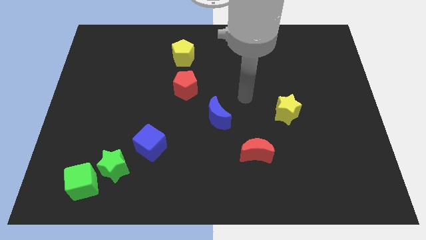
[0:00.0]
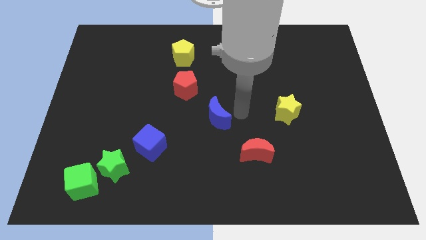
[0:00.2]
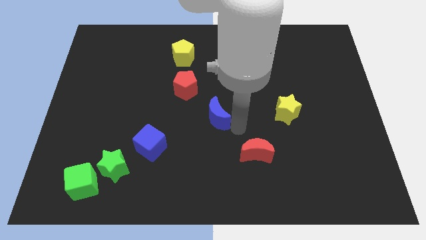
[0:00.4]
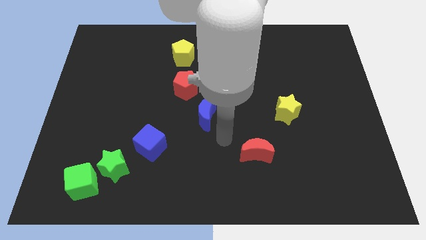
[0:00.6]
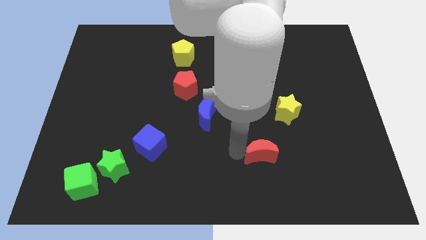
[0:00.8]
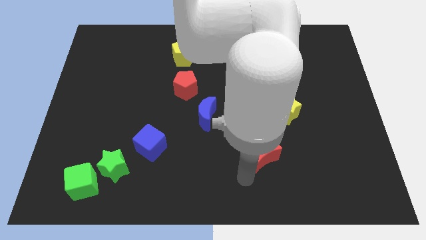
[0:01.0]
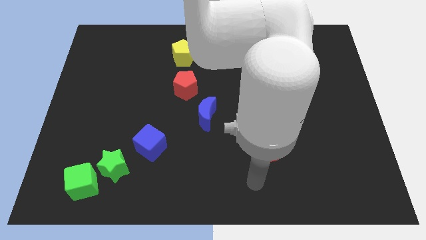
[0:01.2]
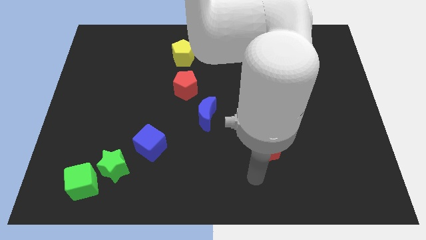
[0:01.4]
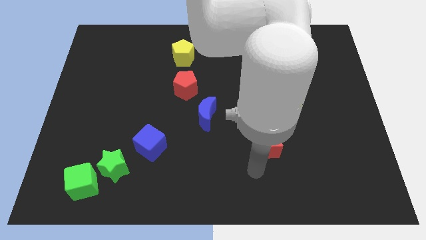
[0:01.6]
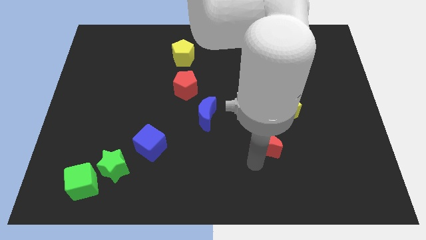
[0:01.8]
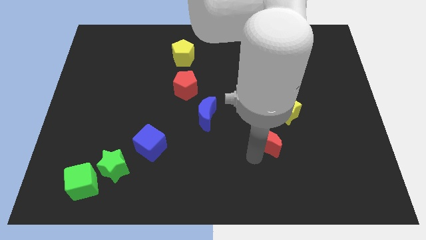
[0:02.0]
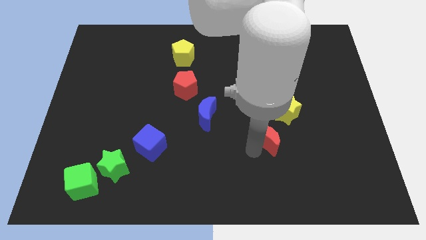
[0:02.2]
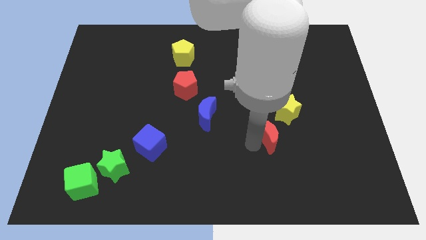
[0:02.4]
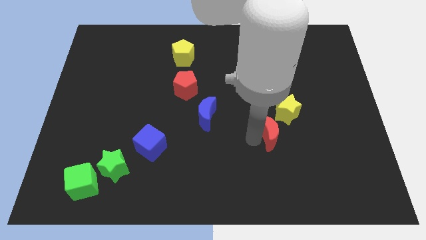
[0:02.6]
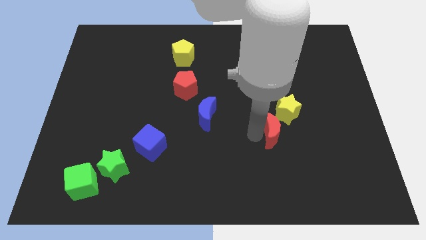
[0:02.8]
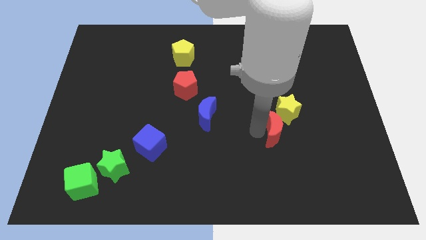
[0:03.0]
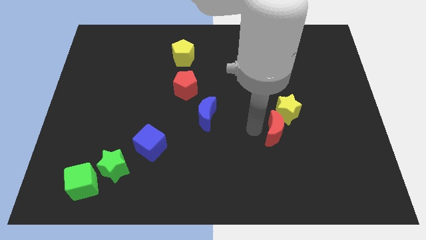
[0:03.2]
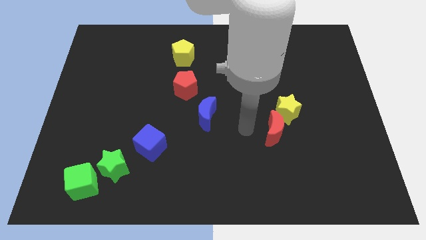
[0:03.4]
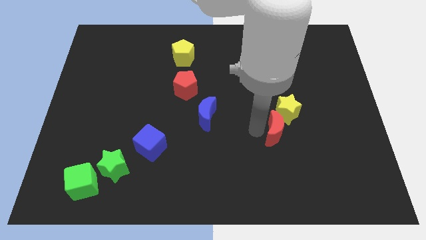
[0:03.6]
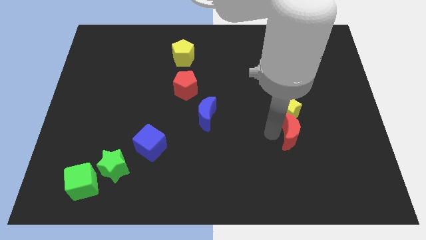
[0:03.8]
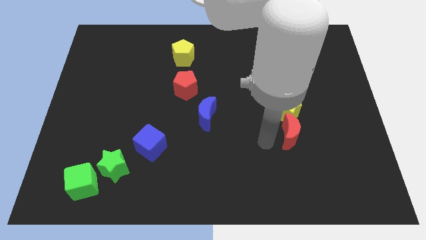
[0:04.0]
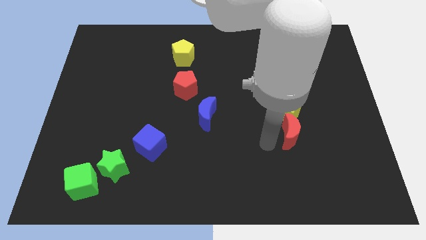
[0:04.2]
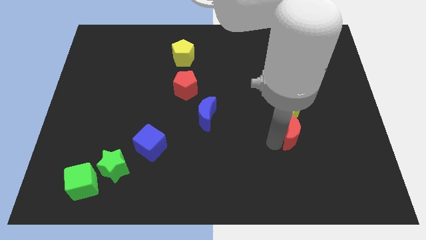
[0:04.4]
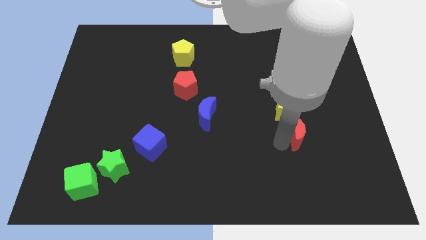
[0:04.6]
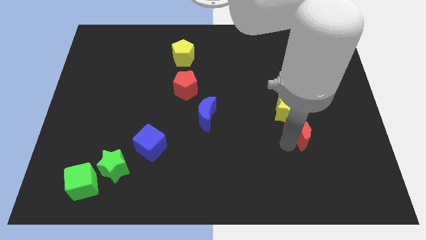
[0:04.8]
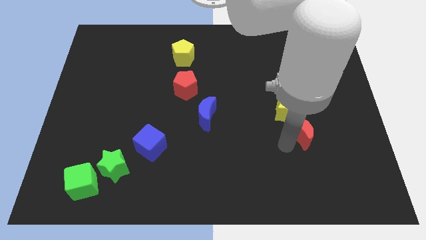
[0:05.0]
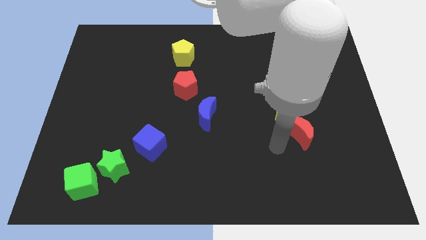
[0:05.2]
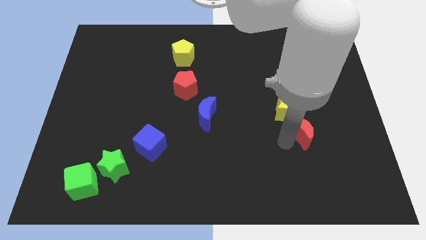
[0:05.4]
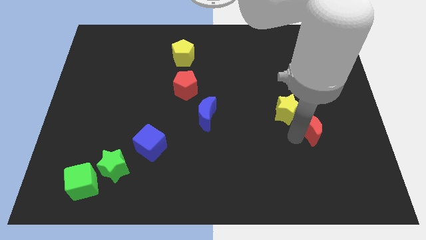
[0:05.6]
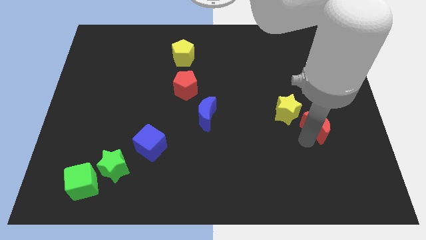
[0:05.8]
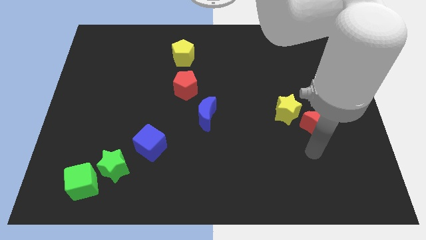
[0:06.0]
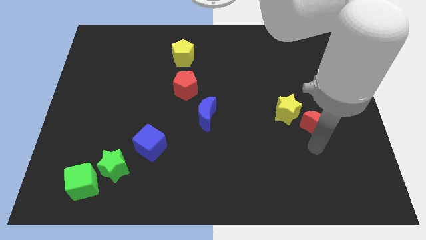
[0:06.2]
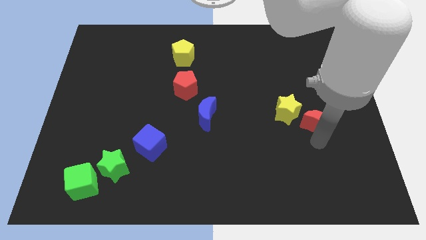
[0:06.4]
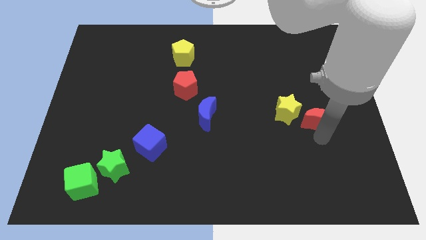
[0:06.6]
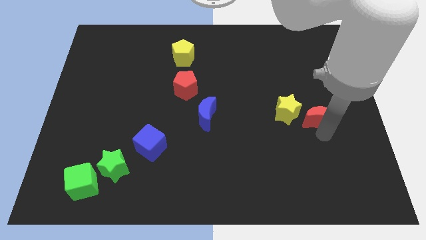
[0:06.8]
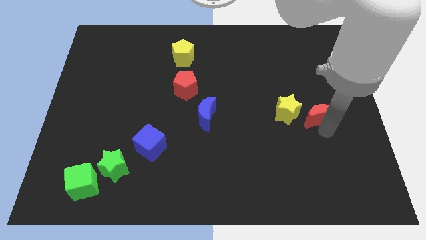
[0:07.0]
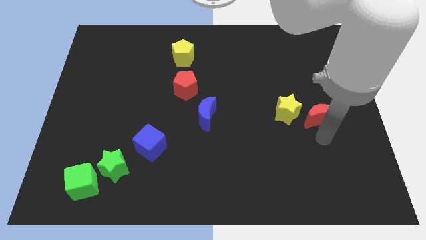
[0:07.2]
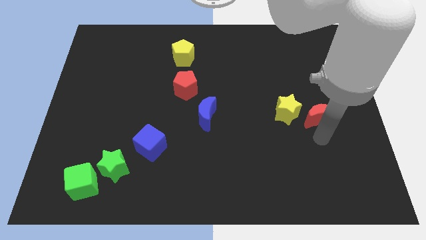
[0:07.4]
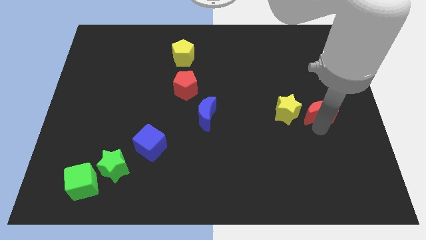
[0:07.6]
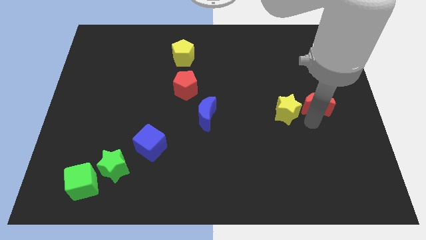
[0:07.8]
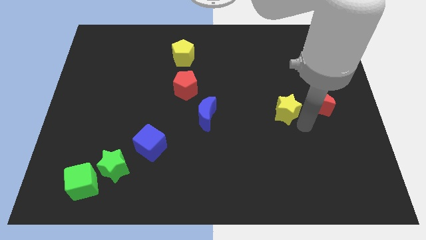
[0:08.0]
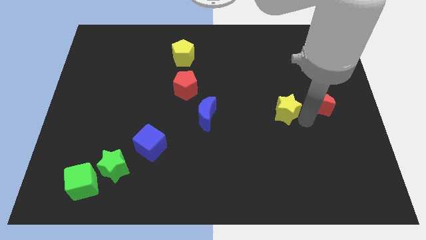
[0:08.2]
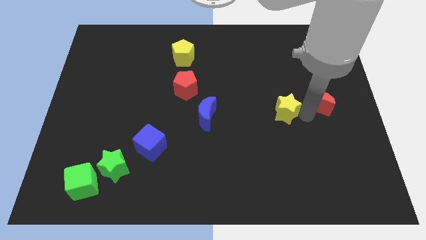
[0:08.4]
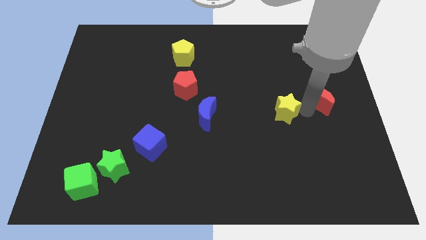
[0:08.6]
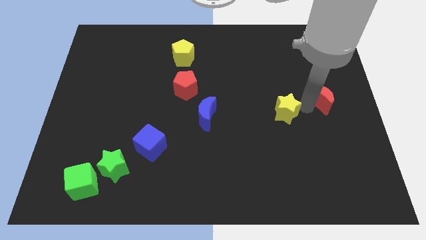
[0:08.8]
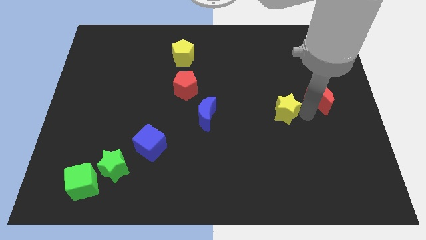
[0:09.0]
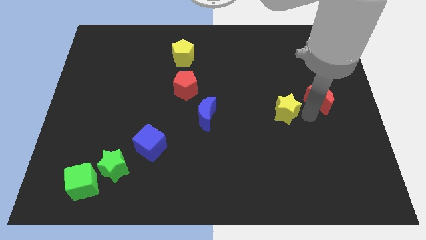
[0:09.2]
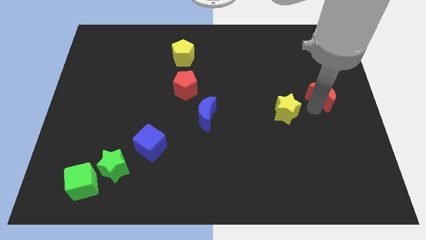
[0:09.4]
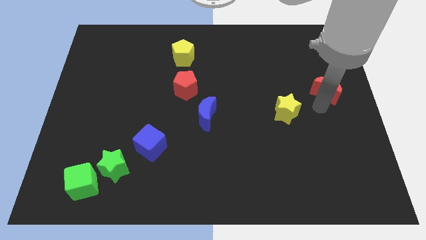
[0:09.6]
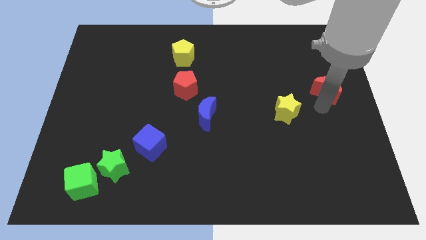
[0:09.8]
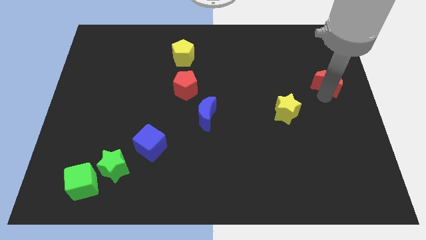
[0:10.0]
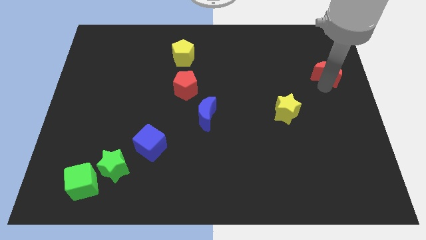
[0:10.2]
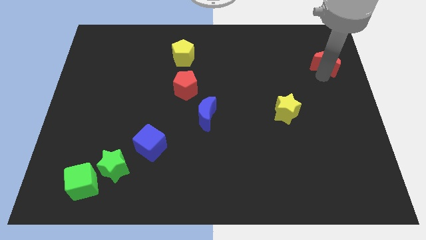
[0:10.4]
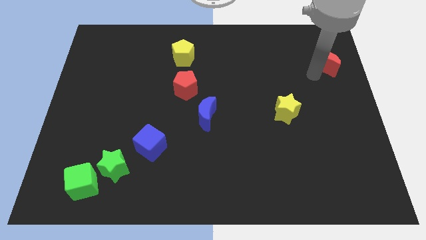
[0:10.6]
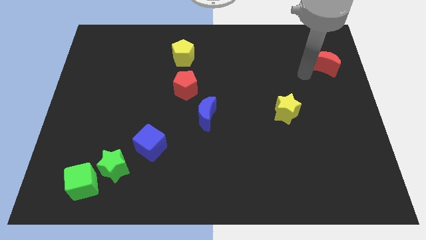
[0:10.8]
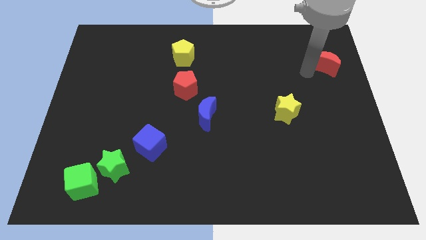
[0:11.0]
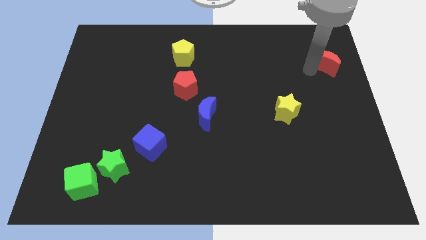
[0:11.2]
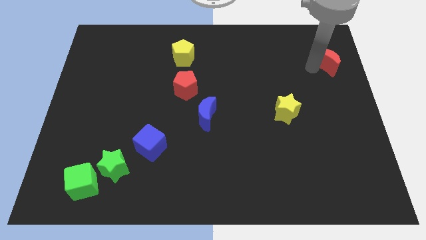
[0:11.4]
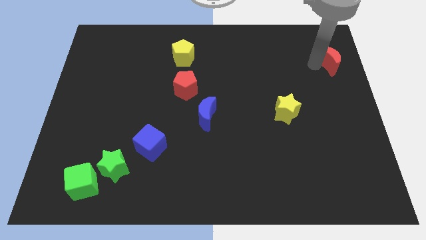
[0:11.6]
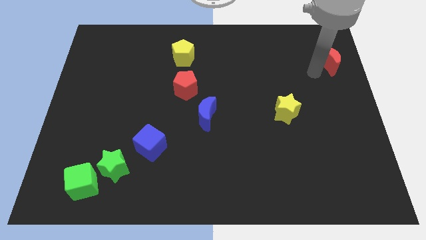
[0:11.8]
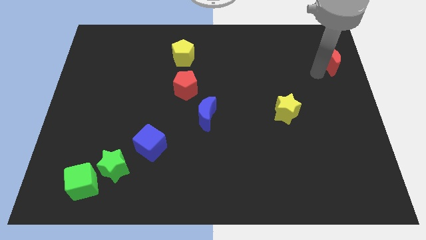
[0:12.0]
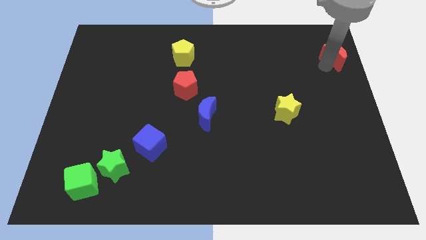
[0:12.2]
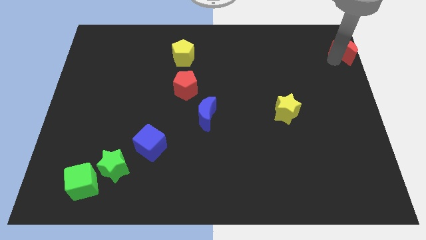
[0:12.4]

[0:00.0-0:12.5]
push the red moon to the top right
